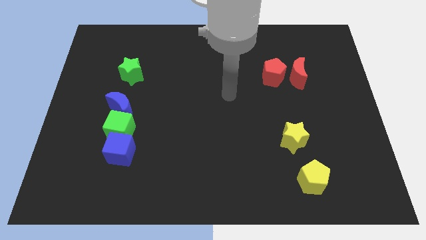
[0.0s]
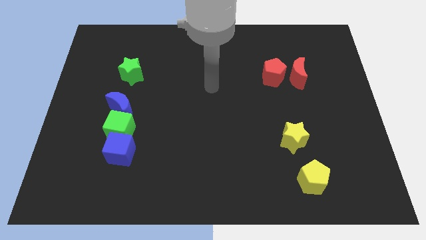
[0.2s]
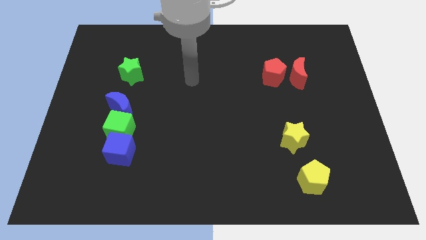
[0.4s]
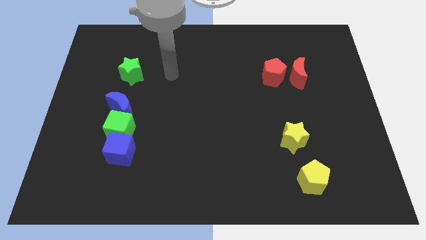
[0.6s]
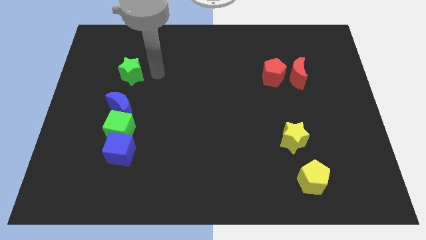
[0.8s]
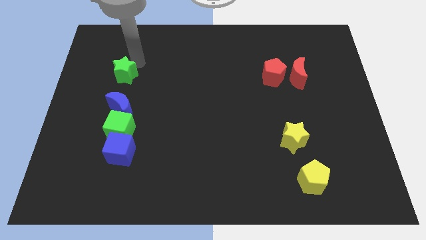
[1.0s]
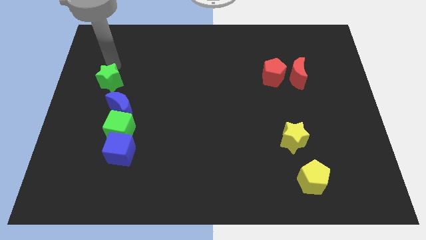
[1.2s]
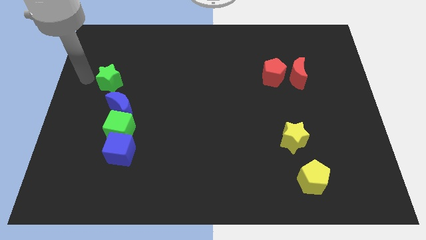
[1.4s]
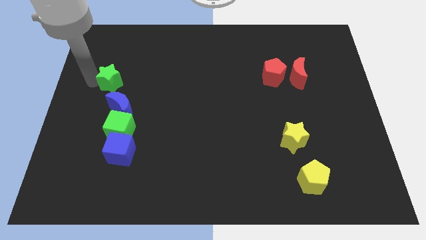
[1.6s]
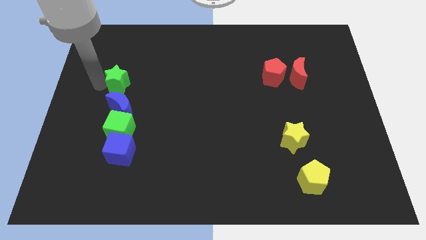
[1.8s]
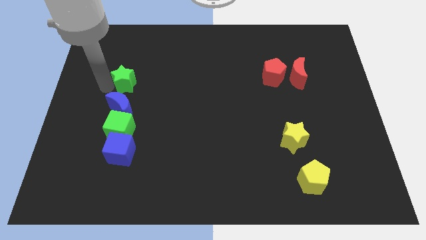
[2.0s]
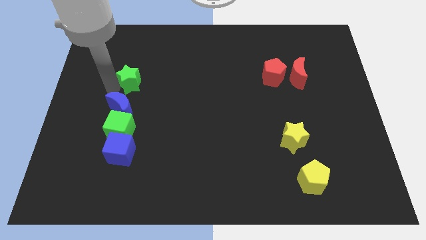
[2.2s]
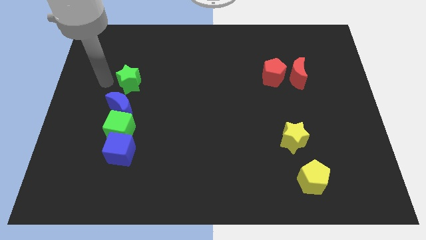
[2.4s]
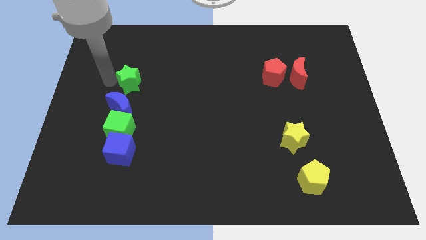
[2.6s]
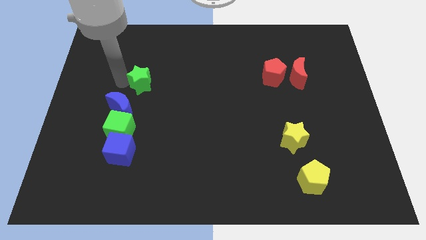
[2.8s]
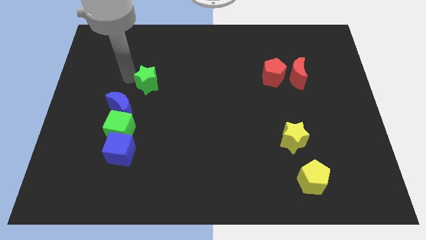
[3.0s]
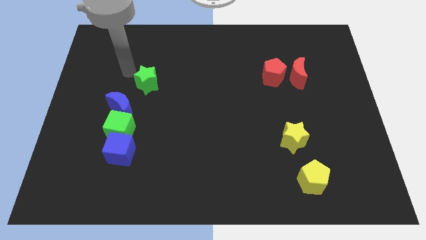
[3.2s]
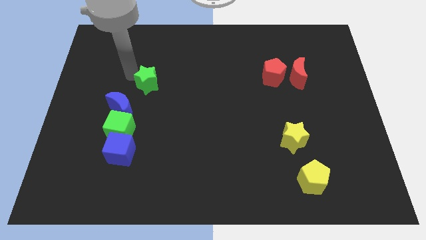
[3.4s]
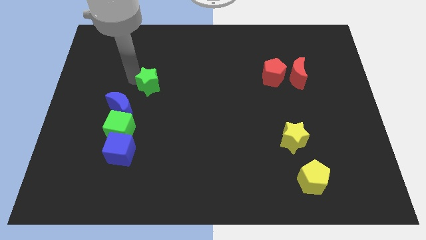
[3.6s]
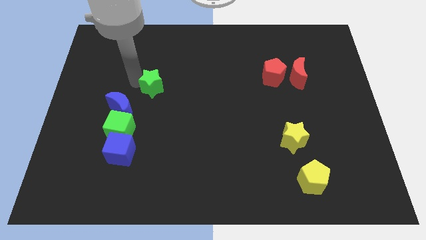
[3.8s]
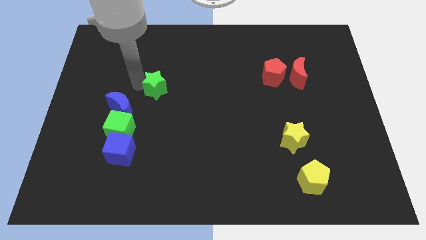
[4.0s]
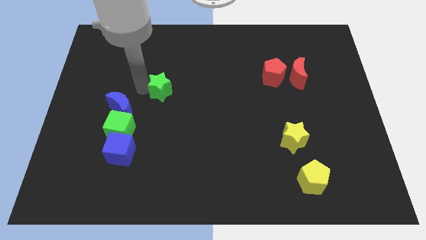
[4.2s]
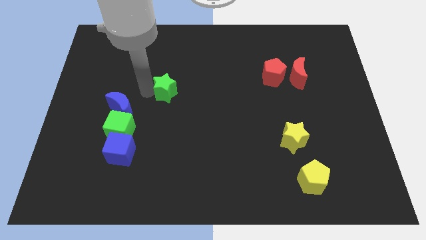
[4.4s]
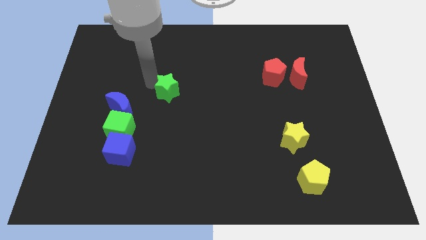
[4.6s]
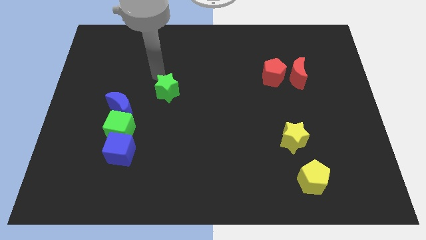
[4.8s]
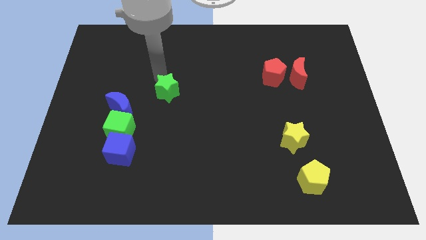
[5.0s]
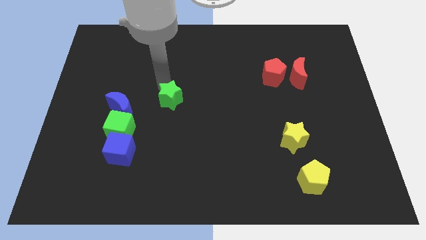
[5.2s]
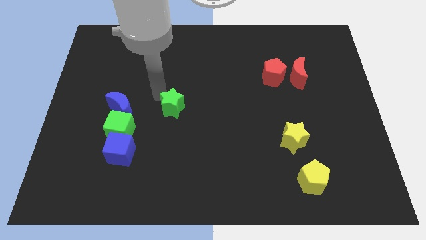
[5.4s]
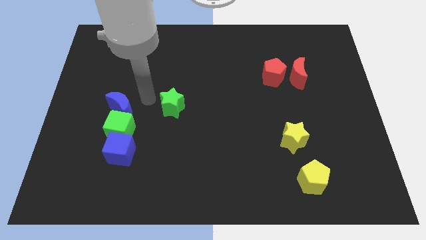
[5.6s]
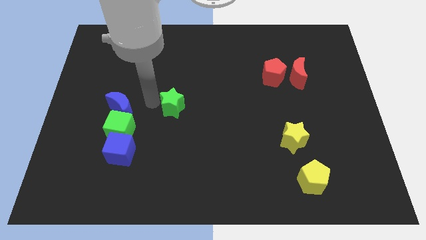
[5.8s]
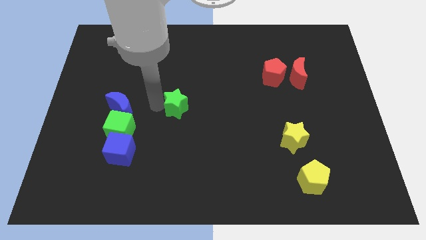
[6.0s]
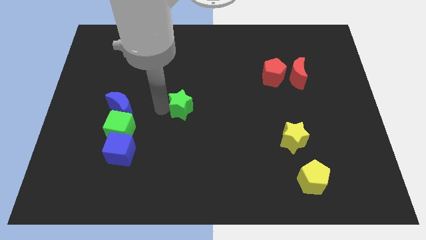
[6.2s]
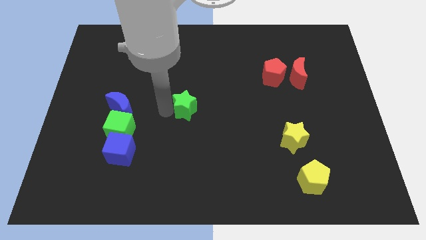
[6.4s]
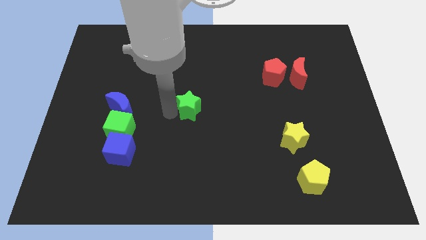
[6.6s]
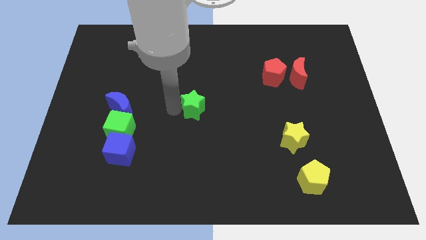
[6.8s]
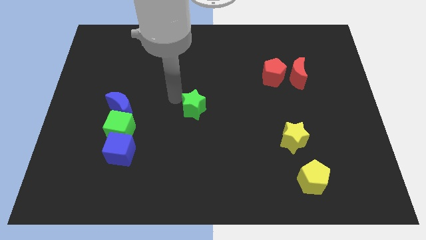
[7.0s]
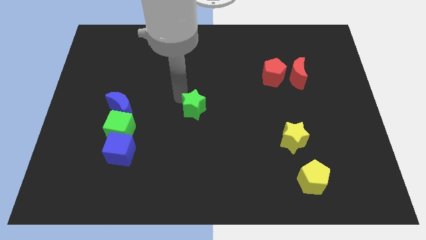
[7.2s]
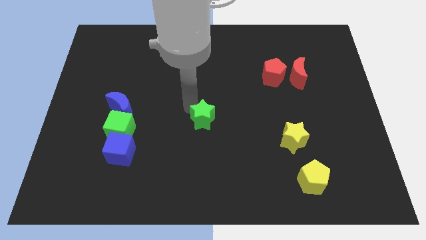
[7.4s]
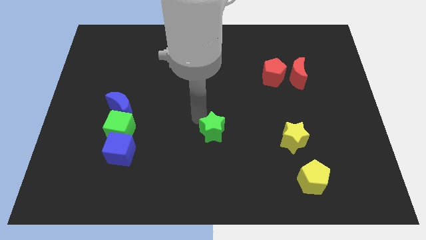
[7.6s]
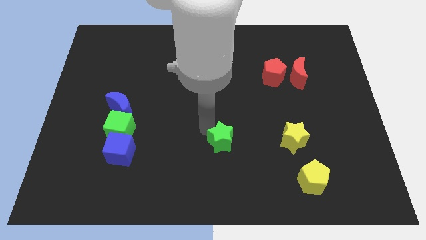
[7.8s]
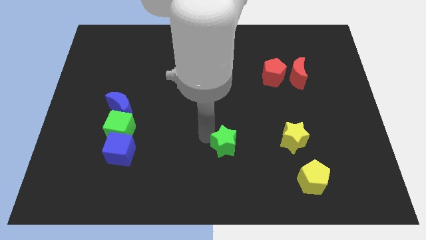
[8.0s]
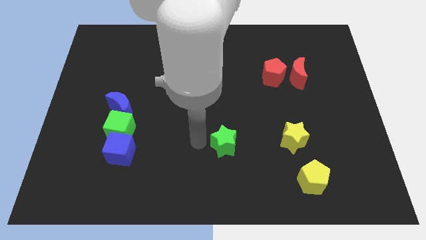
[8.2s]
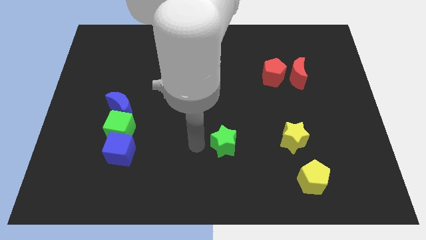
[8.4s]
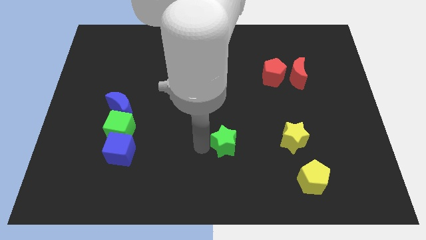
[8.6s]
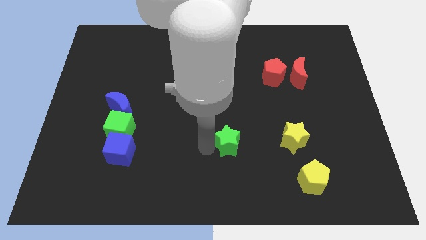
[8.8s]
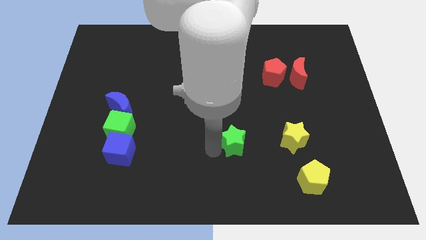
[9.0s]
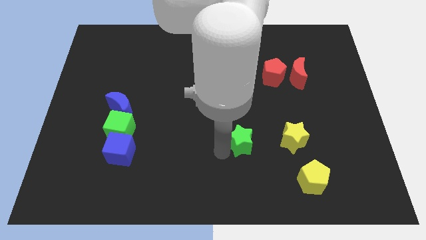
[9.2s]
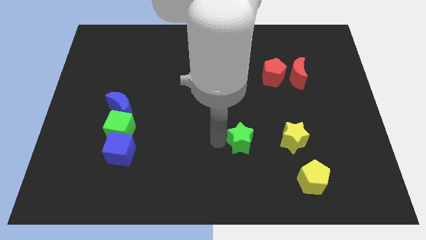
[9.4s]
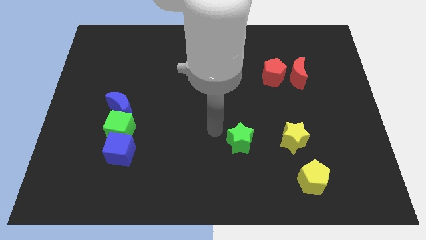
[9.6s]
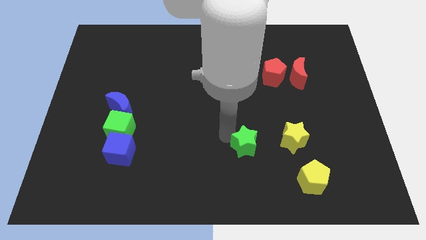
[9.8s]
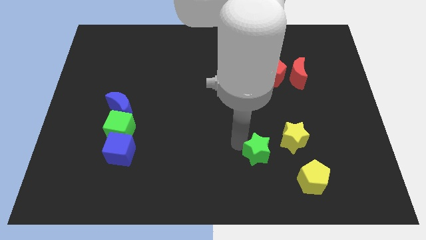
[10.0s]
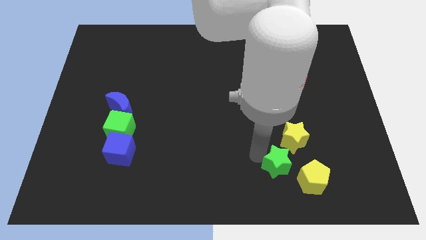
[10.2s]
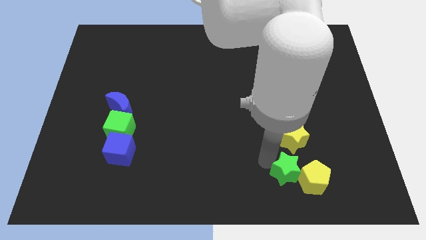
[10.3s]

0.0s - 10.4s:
push the green star next to the yellow pentagon

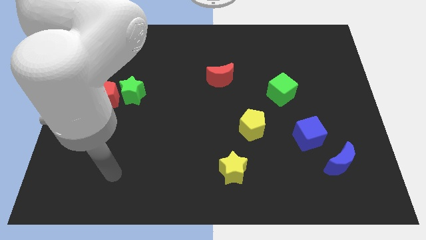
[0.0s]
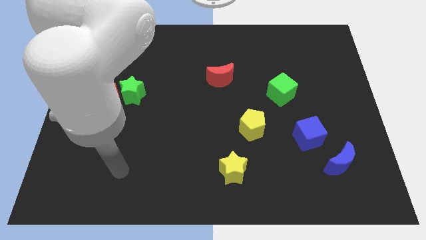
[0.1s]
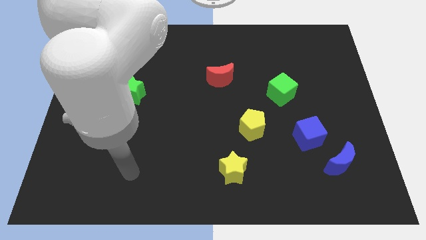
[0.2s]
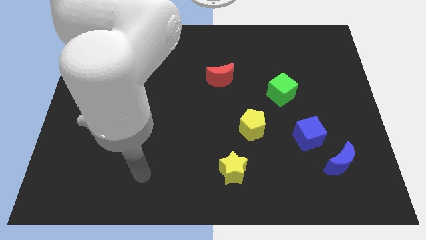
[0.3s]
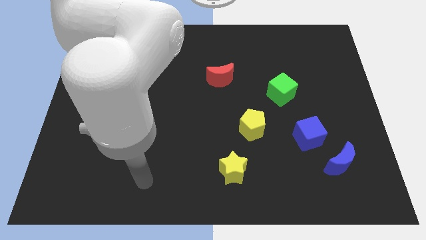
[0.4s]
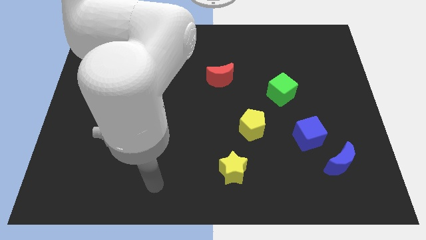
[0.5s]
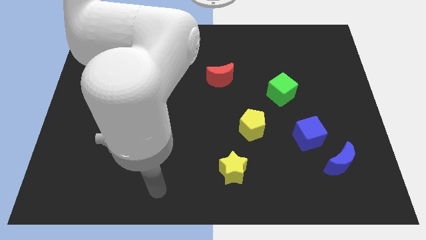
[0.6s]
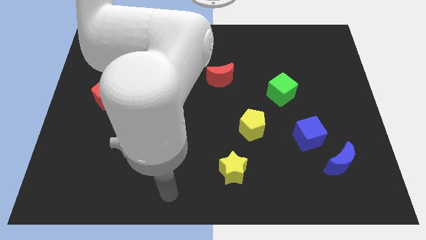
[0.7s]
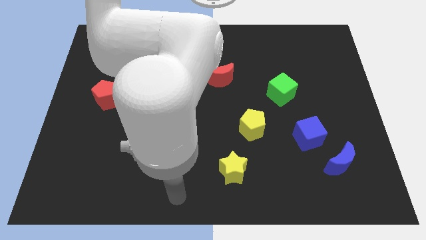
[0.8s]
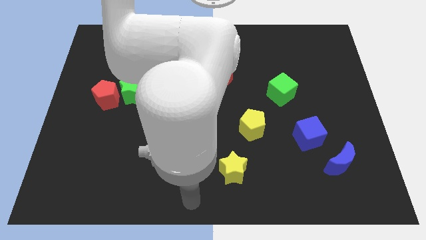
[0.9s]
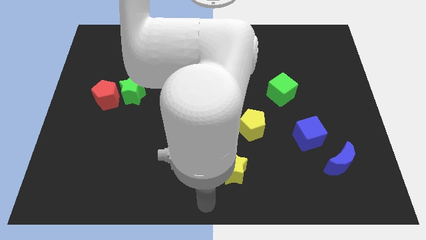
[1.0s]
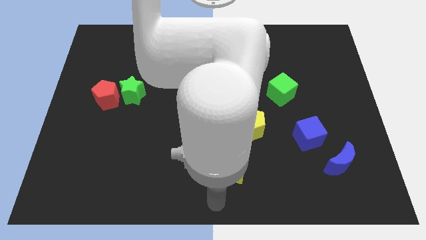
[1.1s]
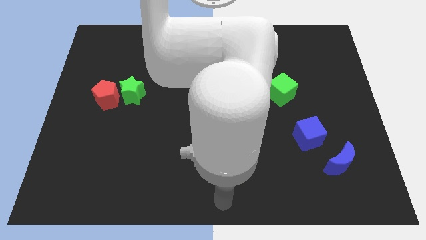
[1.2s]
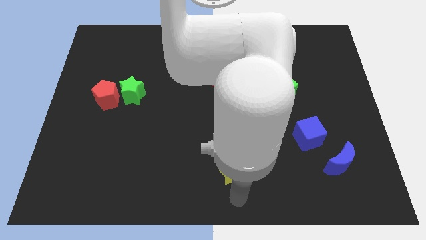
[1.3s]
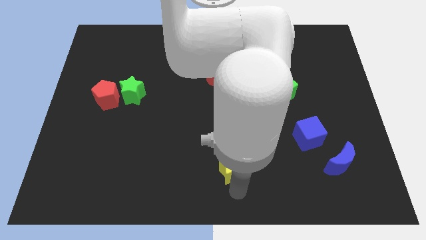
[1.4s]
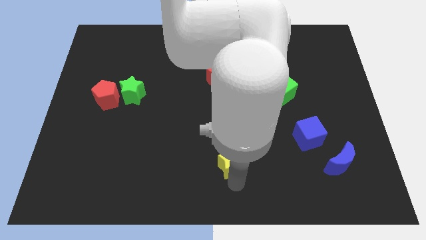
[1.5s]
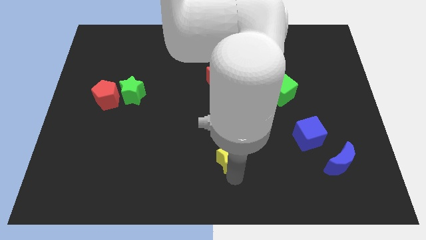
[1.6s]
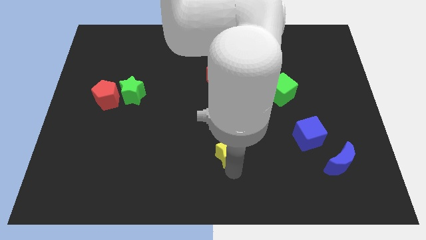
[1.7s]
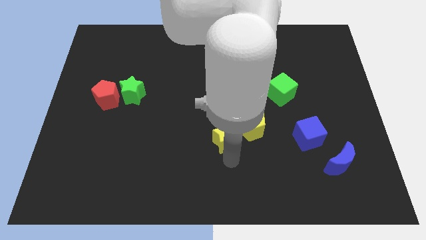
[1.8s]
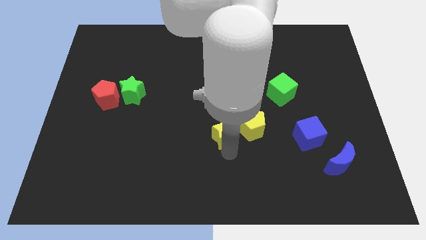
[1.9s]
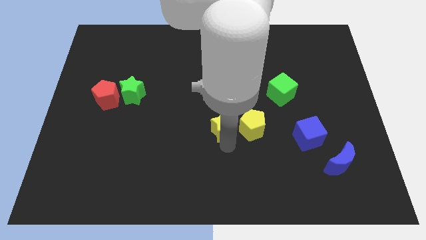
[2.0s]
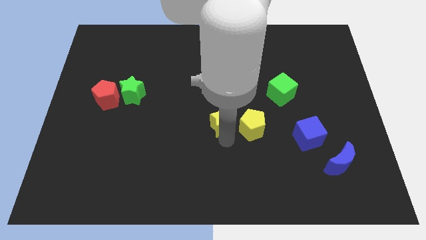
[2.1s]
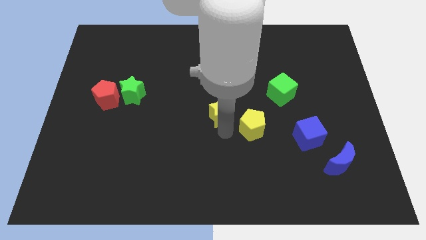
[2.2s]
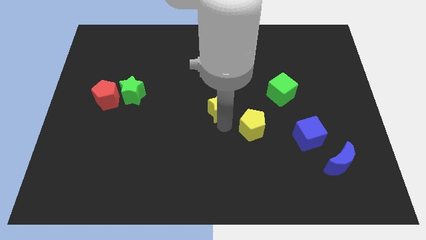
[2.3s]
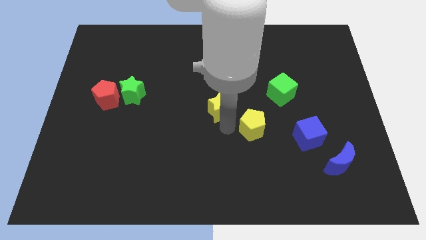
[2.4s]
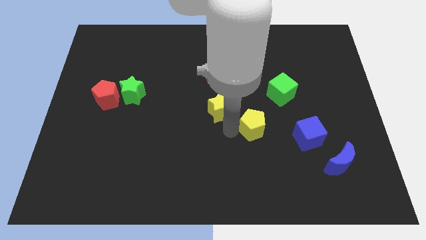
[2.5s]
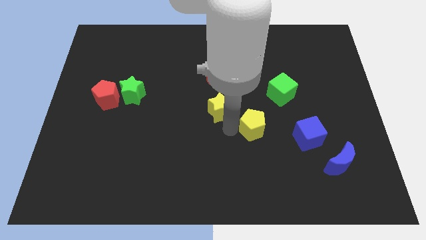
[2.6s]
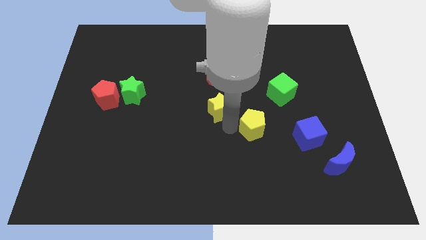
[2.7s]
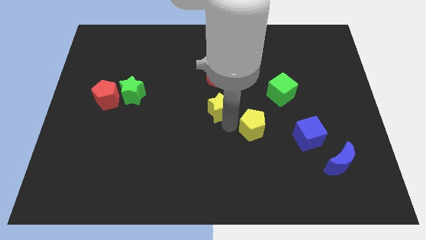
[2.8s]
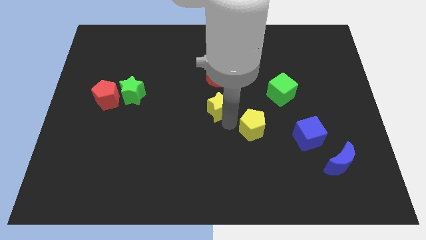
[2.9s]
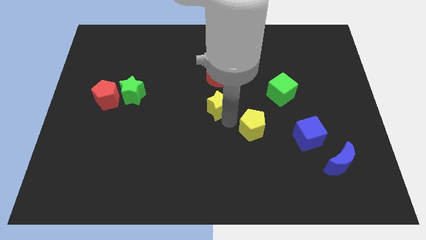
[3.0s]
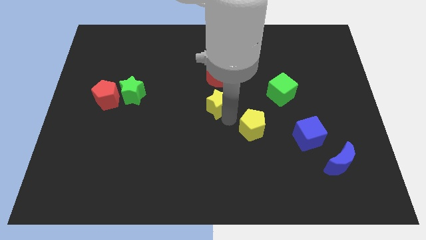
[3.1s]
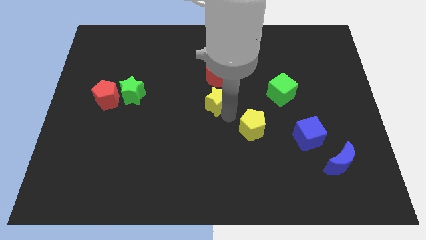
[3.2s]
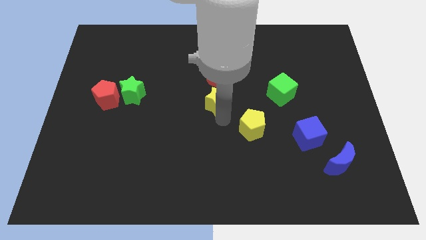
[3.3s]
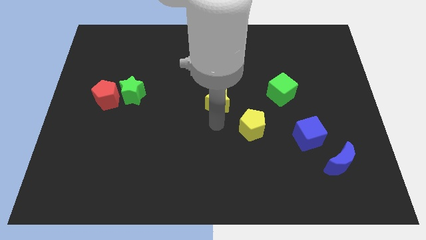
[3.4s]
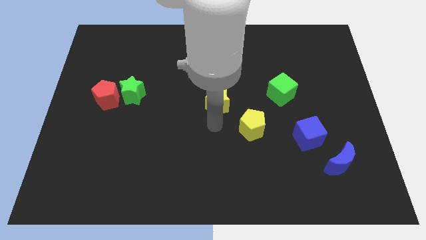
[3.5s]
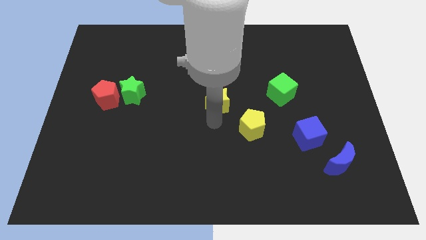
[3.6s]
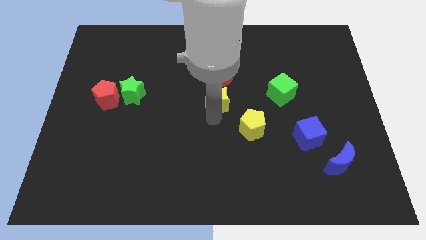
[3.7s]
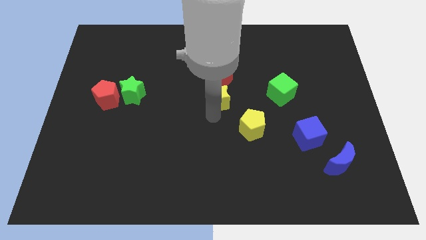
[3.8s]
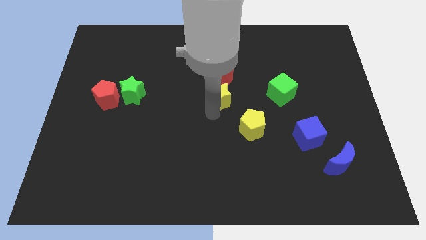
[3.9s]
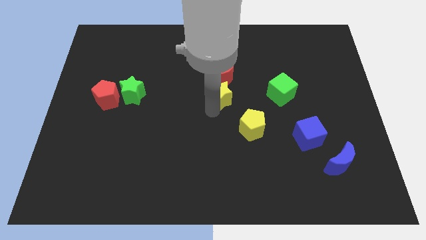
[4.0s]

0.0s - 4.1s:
slide the yellow star close to the red moon
